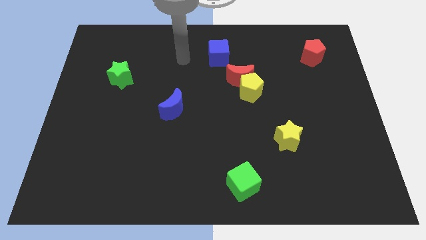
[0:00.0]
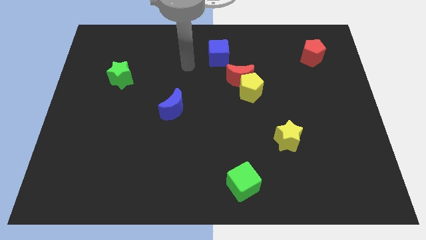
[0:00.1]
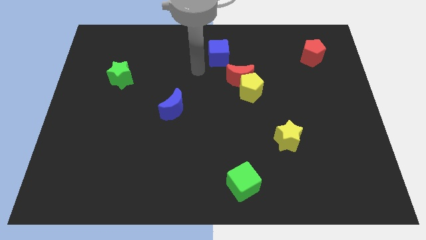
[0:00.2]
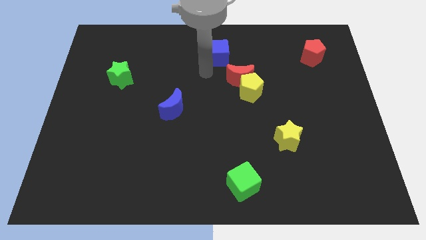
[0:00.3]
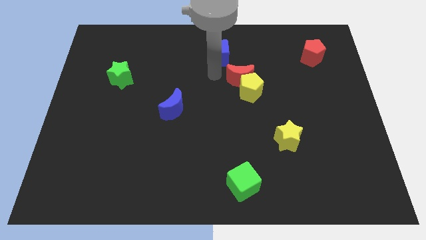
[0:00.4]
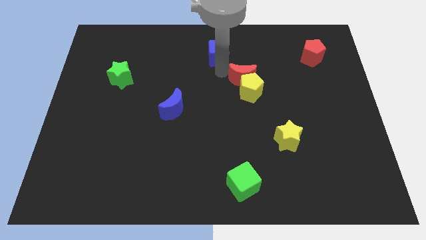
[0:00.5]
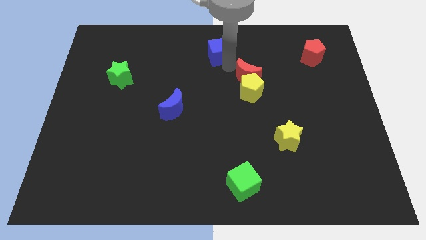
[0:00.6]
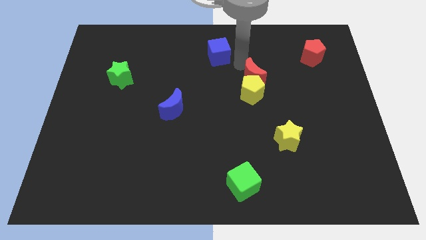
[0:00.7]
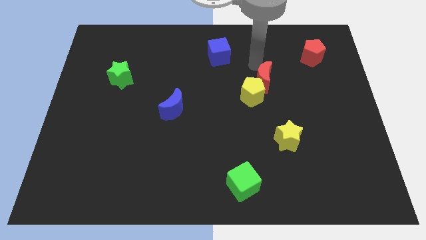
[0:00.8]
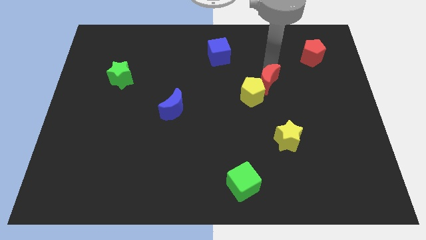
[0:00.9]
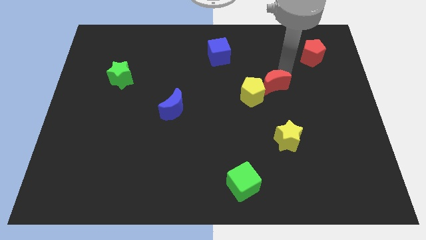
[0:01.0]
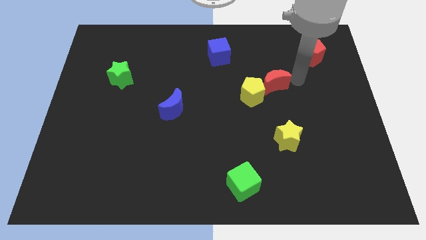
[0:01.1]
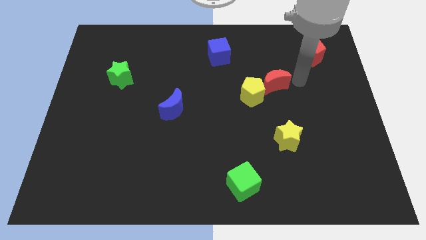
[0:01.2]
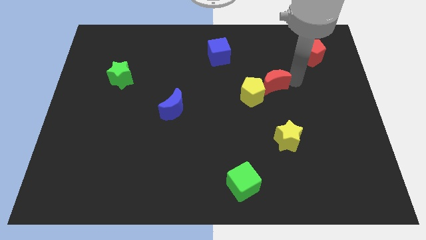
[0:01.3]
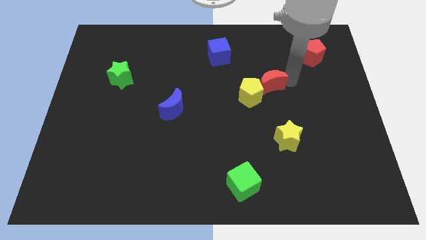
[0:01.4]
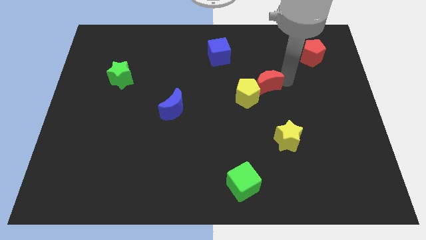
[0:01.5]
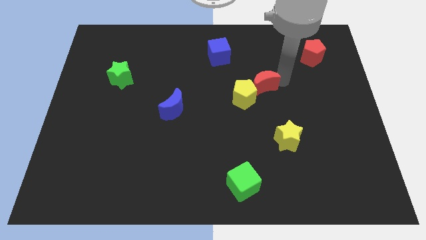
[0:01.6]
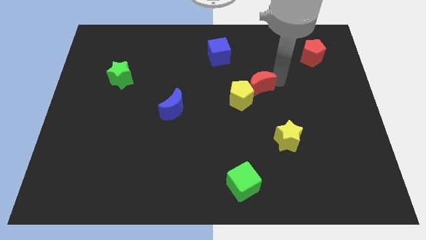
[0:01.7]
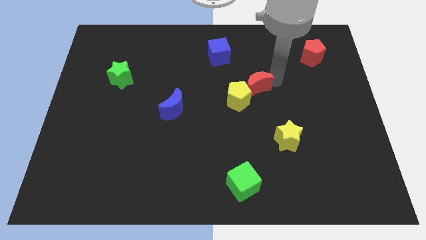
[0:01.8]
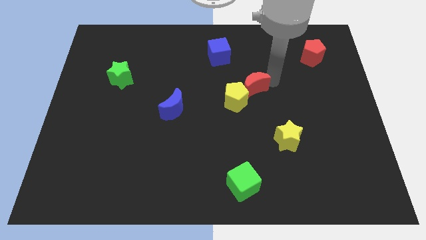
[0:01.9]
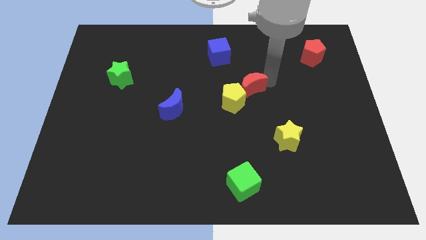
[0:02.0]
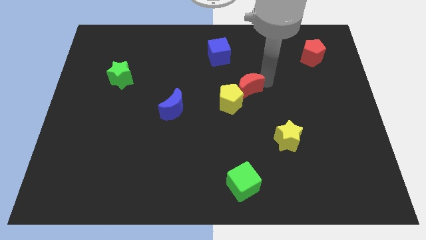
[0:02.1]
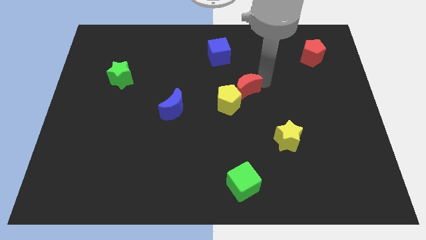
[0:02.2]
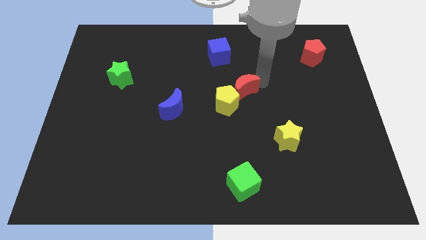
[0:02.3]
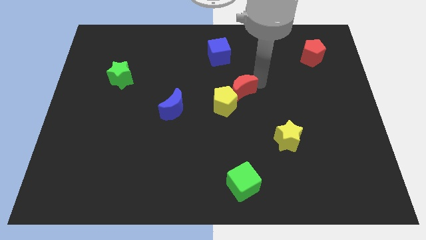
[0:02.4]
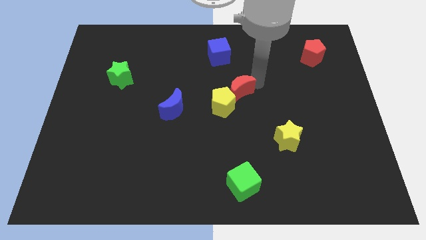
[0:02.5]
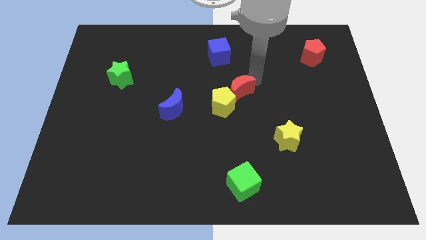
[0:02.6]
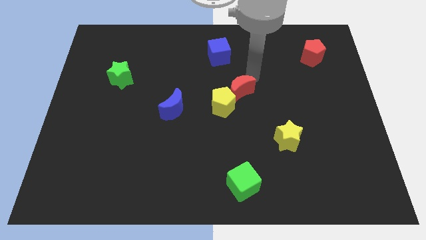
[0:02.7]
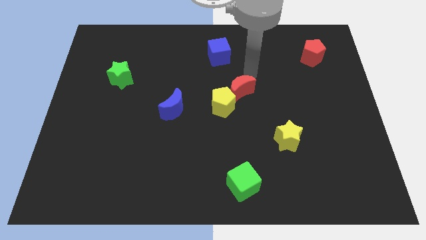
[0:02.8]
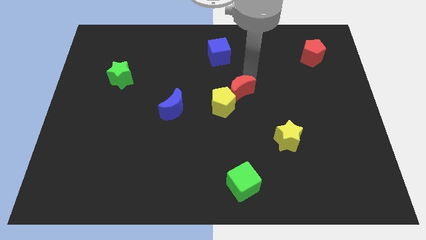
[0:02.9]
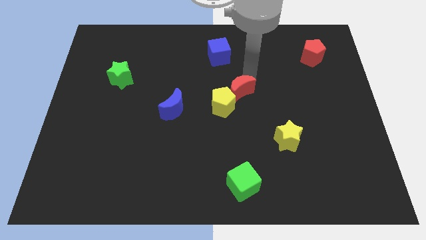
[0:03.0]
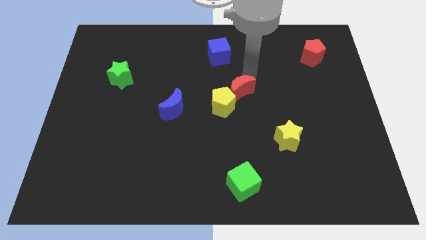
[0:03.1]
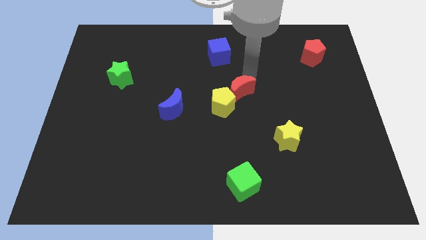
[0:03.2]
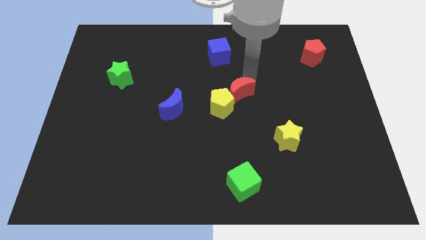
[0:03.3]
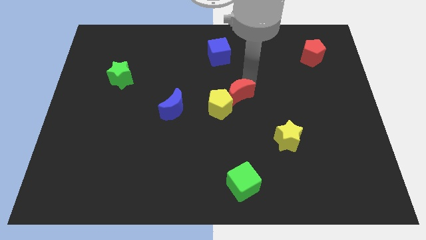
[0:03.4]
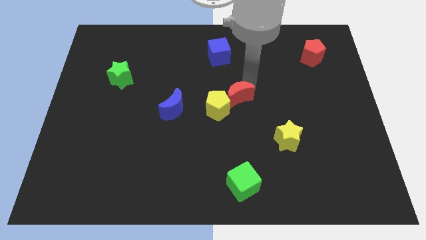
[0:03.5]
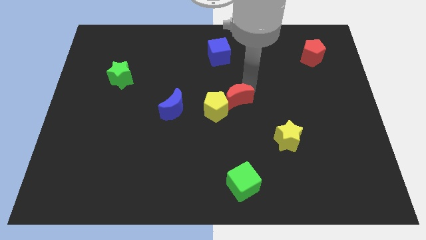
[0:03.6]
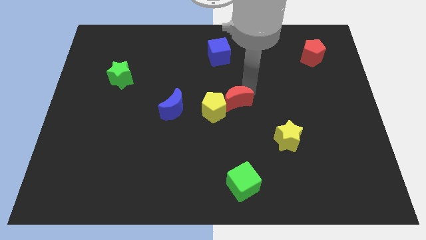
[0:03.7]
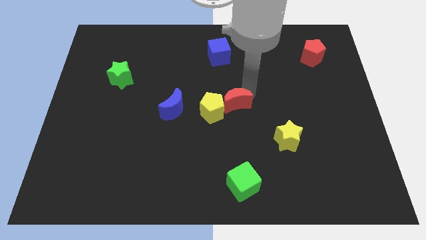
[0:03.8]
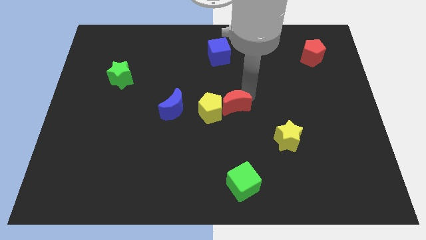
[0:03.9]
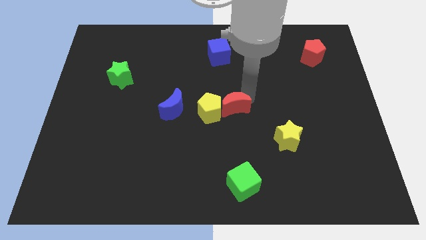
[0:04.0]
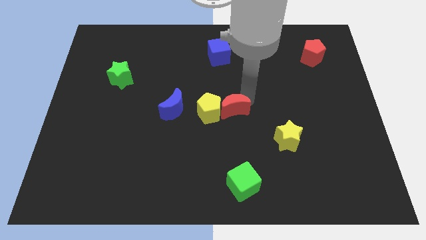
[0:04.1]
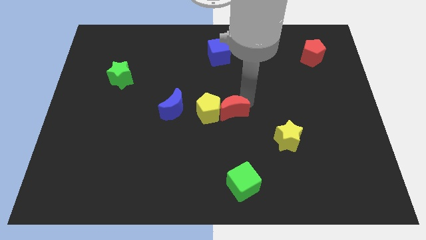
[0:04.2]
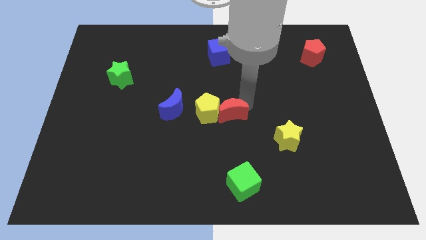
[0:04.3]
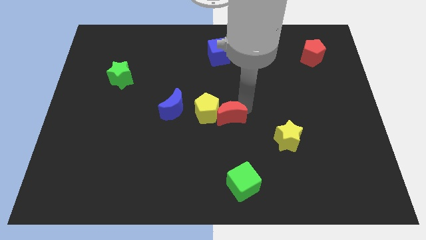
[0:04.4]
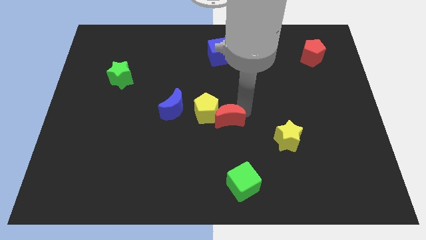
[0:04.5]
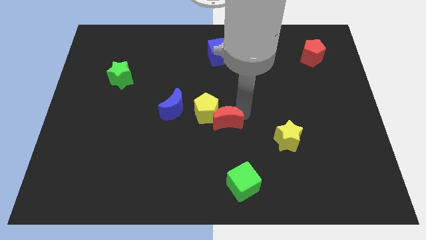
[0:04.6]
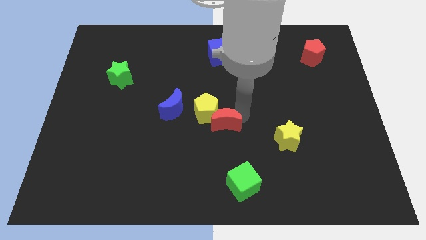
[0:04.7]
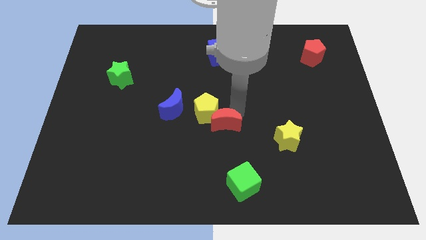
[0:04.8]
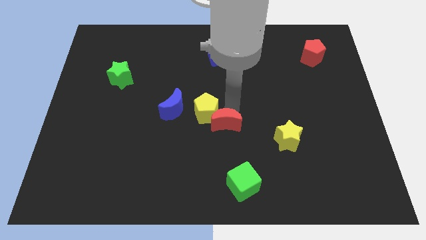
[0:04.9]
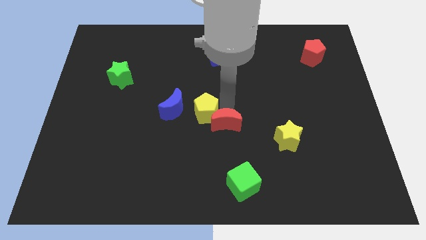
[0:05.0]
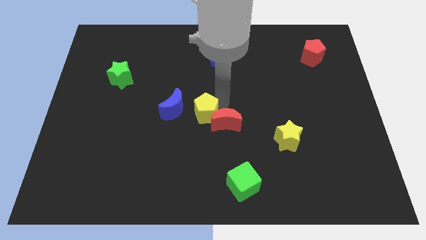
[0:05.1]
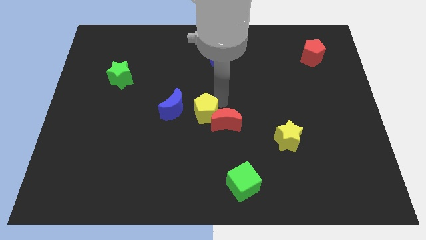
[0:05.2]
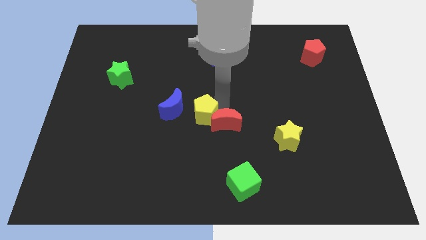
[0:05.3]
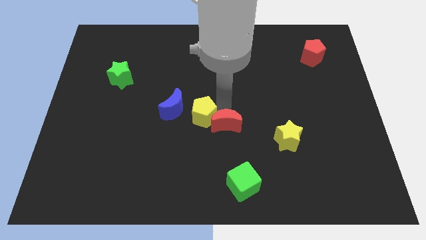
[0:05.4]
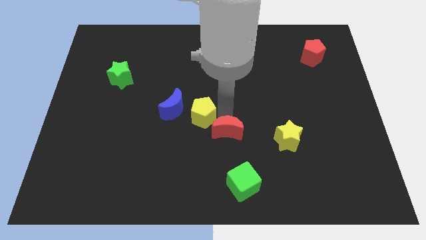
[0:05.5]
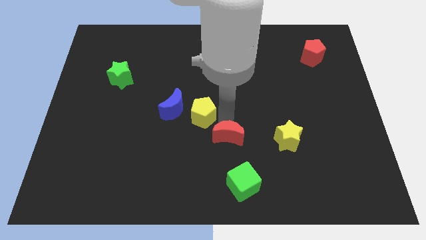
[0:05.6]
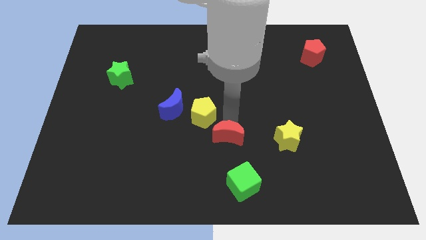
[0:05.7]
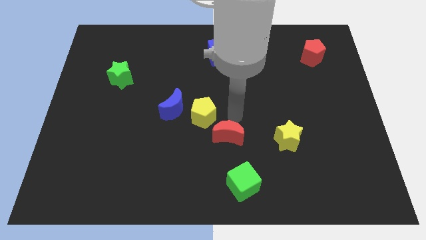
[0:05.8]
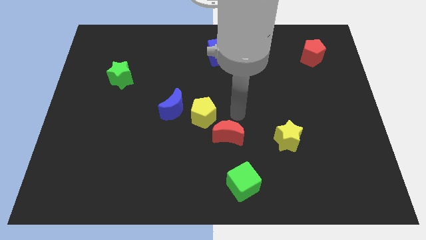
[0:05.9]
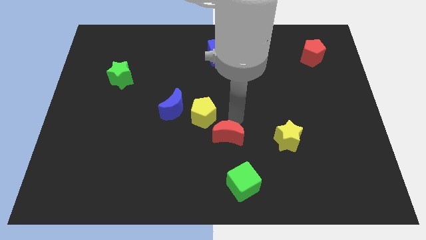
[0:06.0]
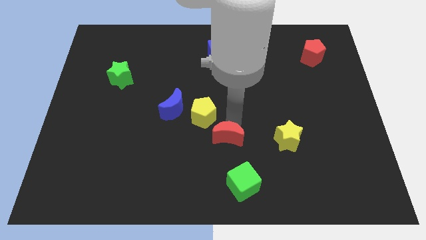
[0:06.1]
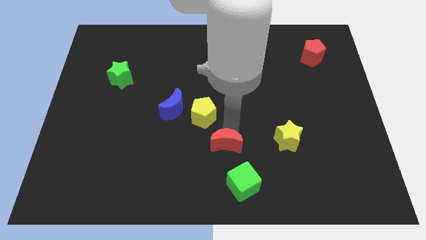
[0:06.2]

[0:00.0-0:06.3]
move the red moon to the top left of the green cube

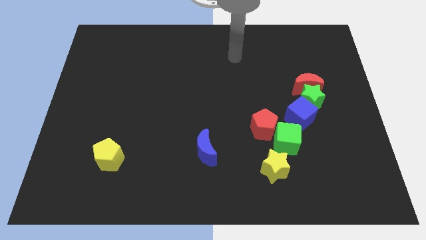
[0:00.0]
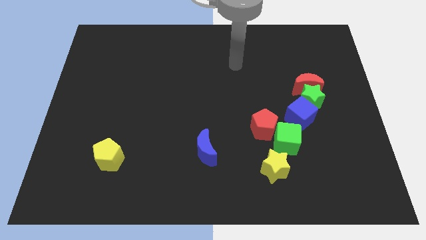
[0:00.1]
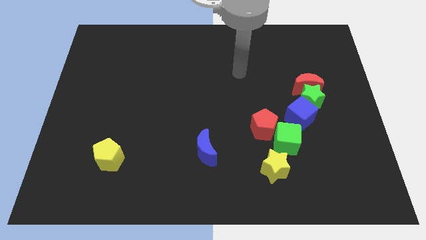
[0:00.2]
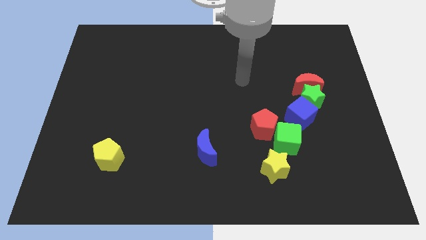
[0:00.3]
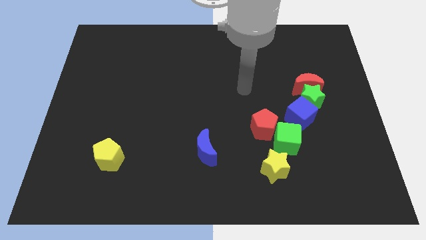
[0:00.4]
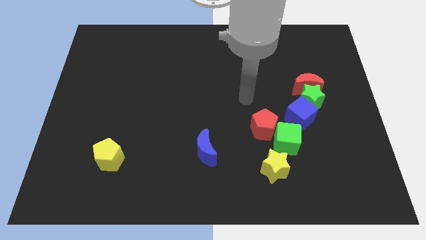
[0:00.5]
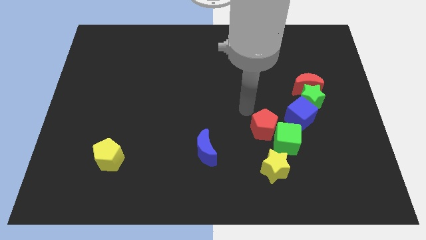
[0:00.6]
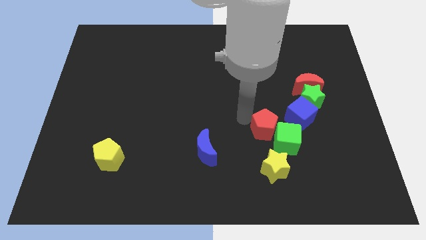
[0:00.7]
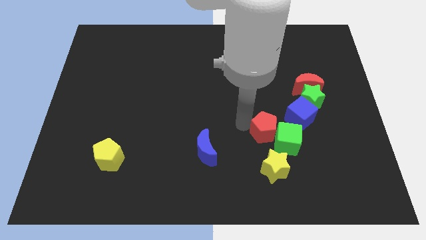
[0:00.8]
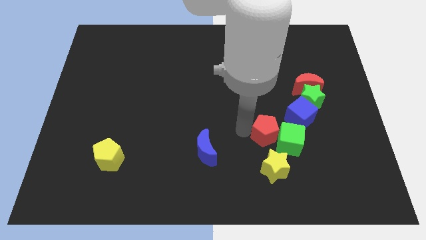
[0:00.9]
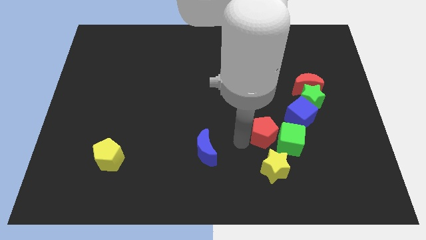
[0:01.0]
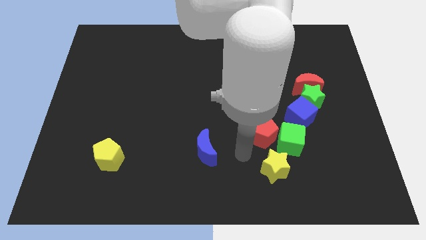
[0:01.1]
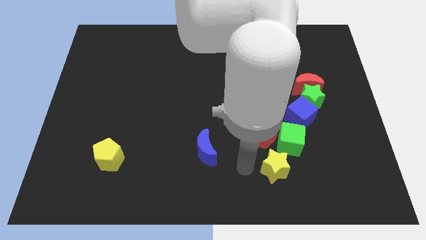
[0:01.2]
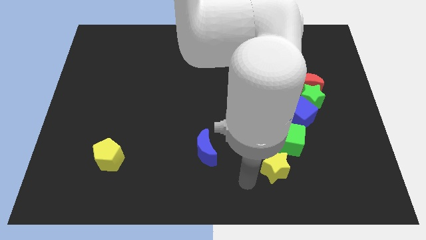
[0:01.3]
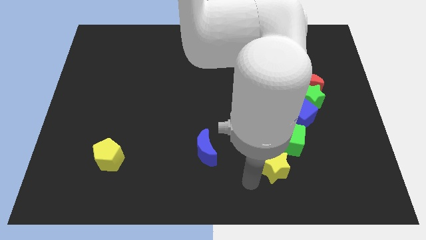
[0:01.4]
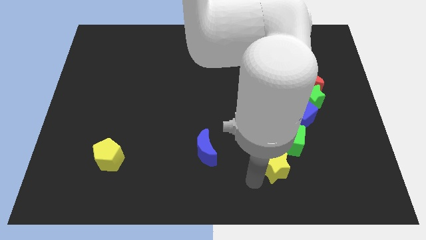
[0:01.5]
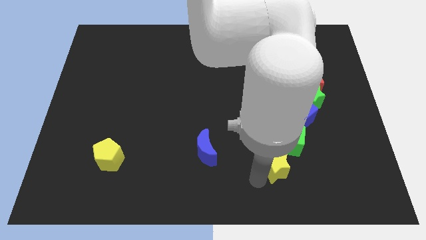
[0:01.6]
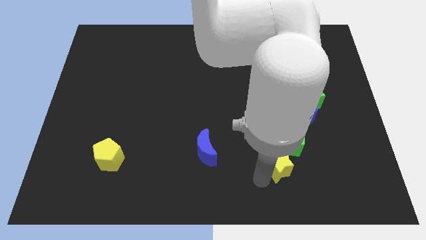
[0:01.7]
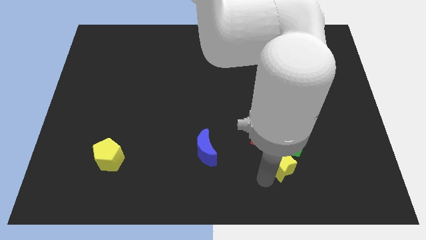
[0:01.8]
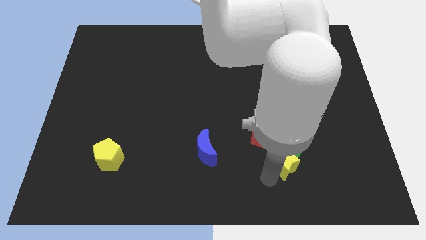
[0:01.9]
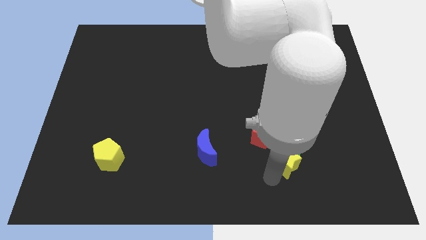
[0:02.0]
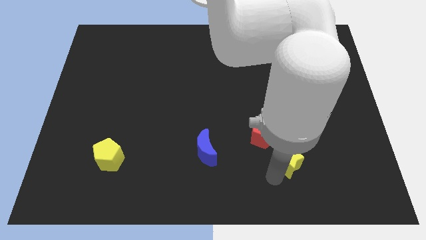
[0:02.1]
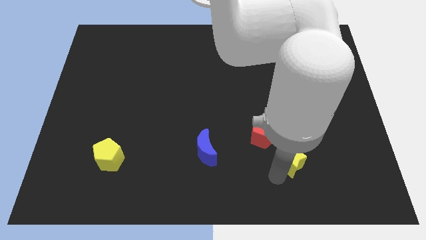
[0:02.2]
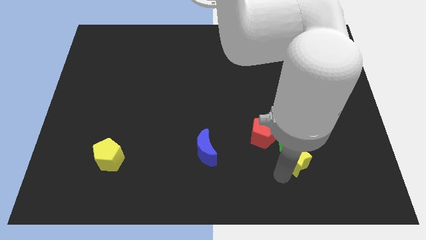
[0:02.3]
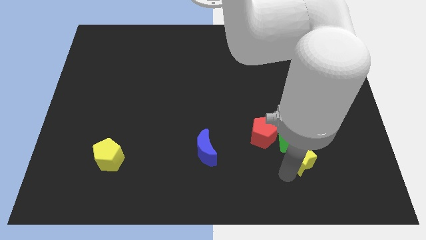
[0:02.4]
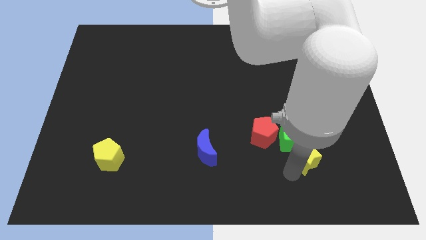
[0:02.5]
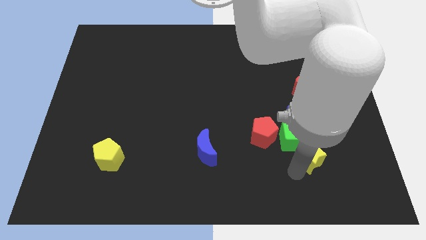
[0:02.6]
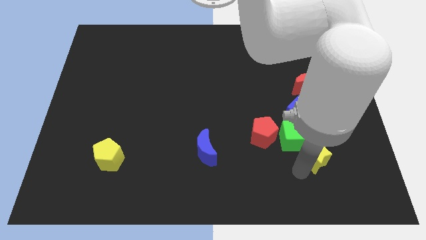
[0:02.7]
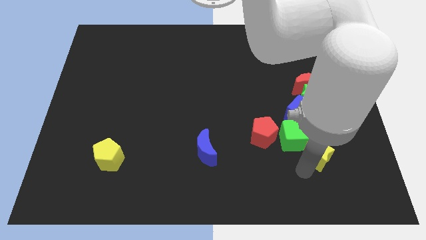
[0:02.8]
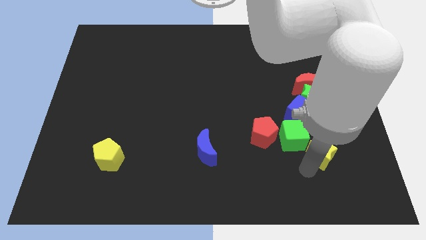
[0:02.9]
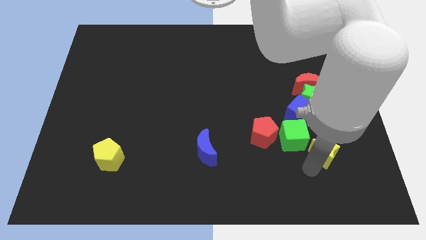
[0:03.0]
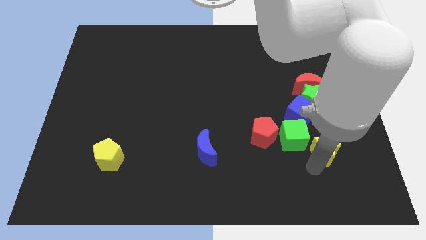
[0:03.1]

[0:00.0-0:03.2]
push the yellow star to the bottom right of the blue cube
